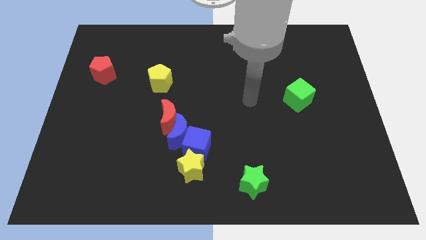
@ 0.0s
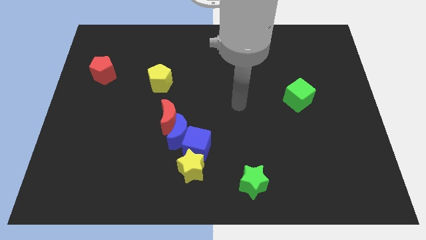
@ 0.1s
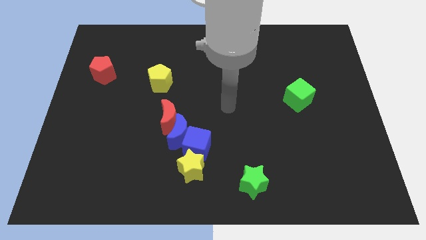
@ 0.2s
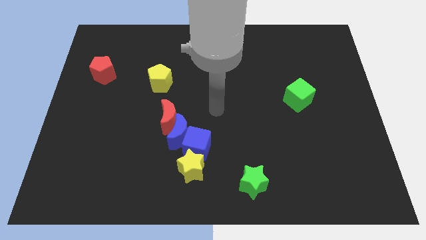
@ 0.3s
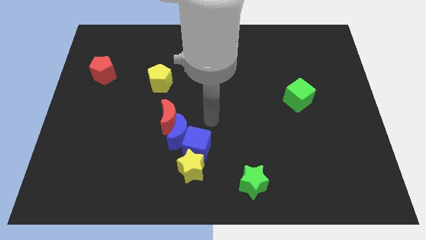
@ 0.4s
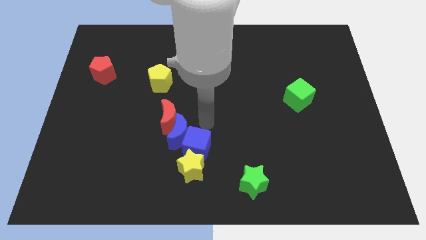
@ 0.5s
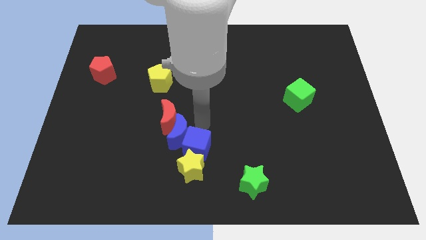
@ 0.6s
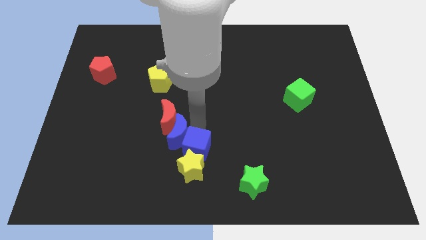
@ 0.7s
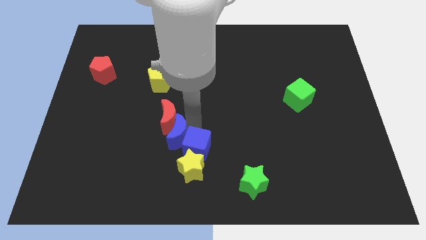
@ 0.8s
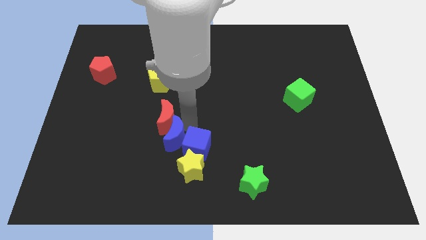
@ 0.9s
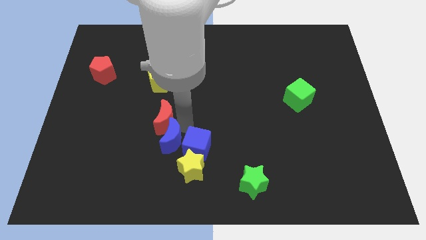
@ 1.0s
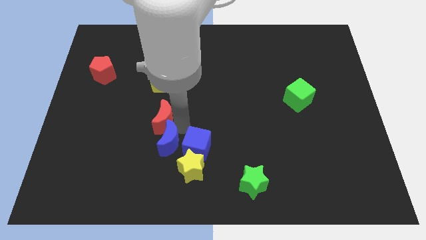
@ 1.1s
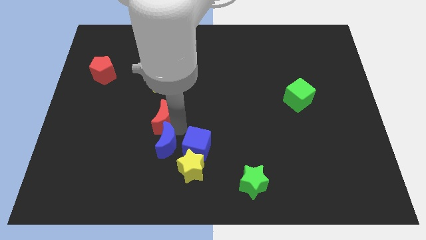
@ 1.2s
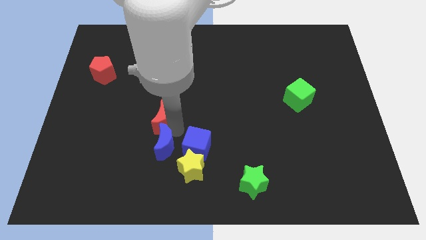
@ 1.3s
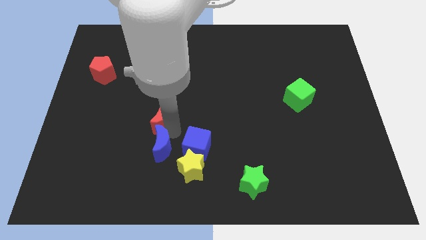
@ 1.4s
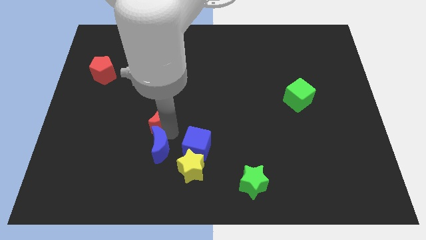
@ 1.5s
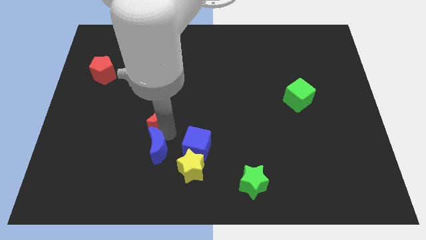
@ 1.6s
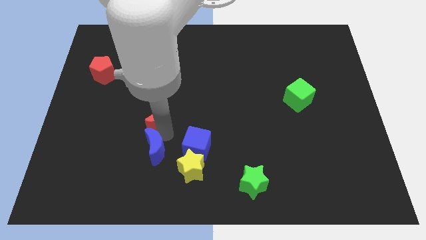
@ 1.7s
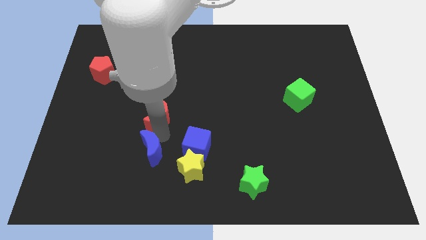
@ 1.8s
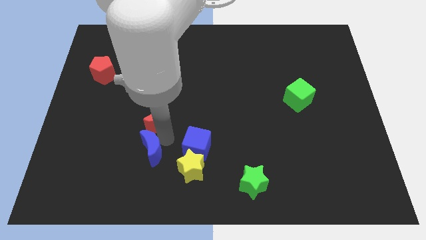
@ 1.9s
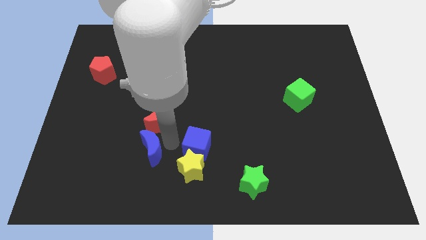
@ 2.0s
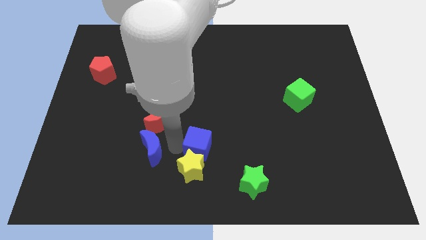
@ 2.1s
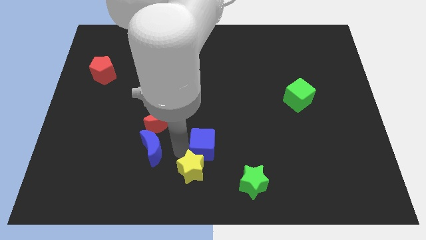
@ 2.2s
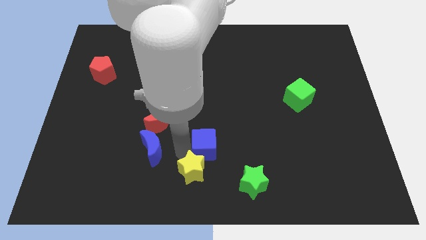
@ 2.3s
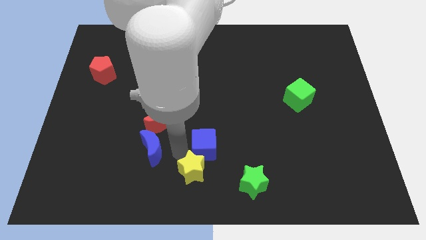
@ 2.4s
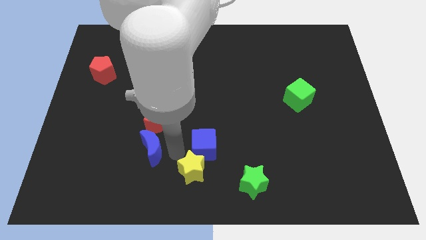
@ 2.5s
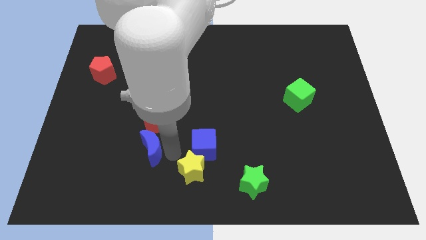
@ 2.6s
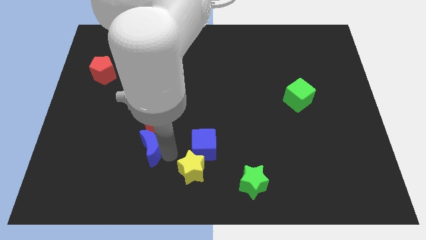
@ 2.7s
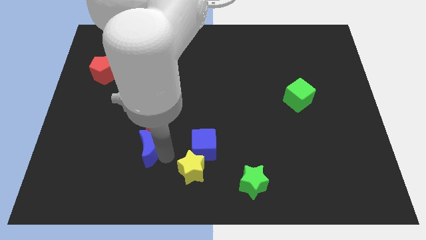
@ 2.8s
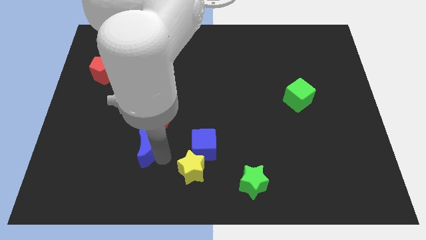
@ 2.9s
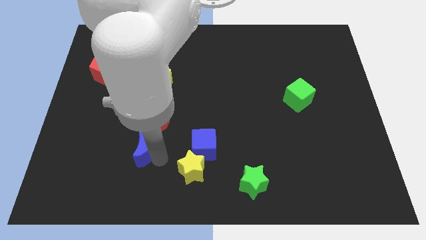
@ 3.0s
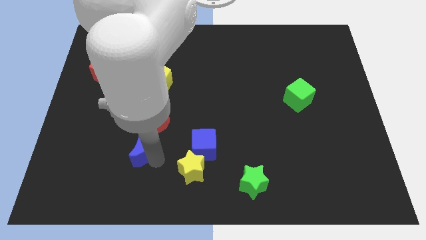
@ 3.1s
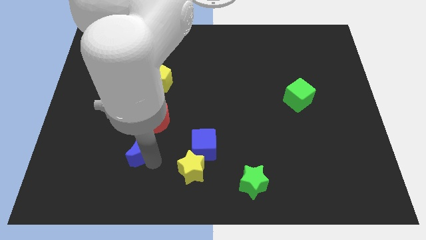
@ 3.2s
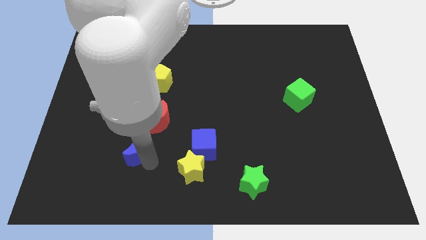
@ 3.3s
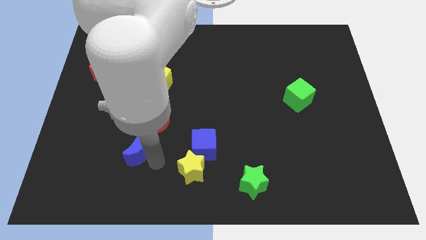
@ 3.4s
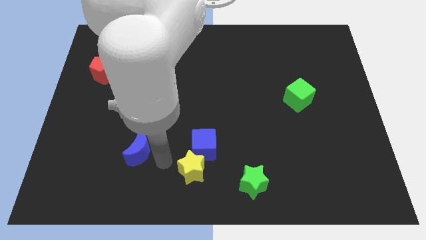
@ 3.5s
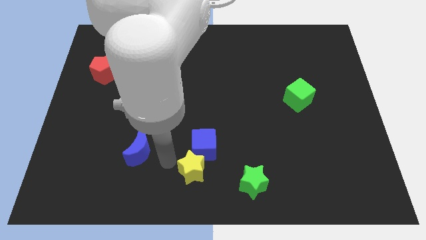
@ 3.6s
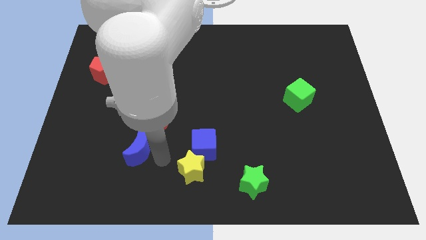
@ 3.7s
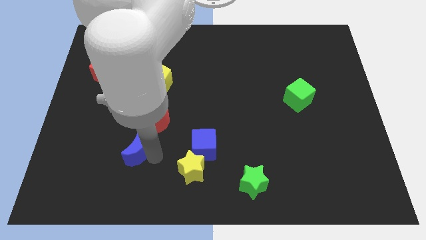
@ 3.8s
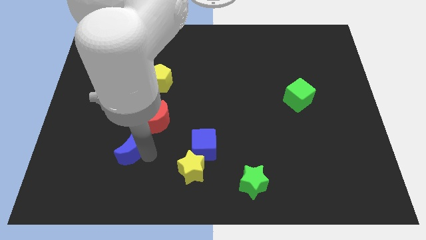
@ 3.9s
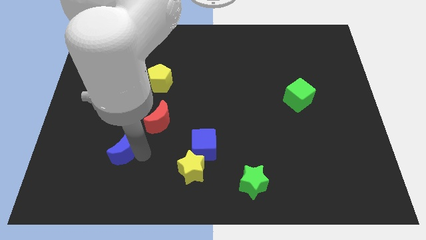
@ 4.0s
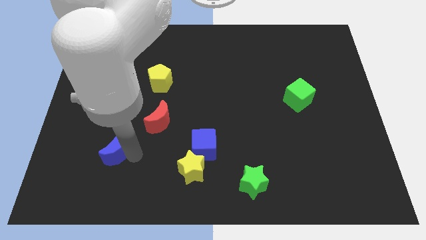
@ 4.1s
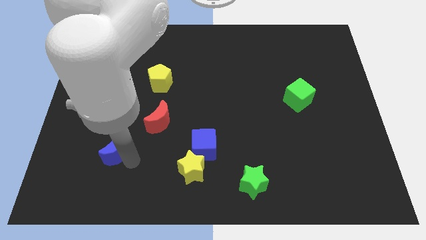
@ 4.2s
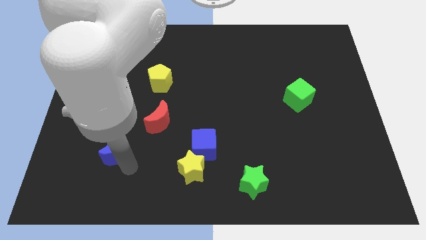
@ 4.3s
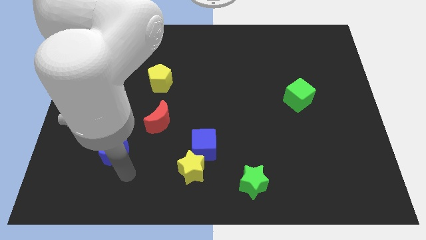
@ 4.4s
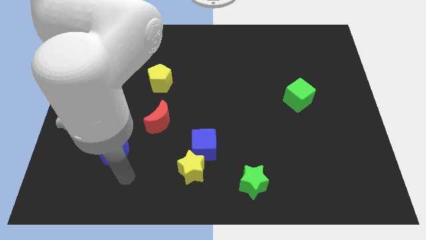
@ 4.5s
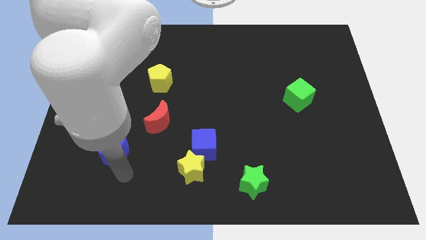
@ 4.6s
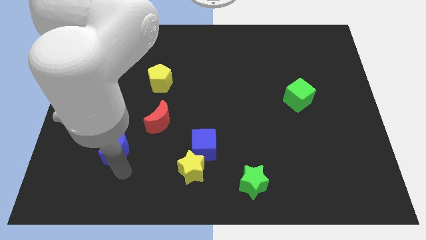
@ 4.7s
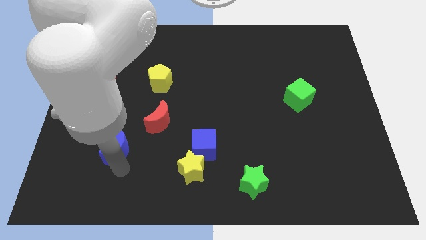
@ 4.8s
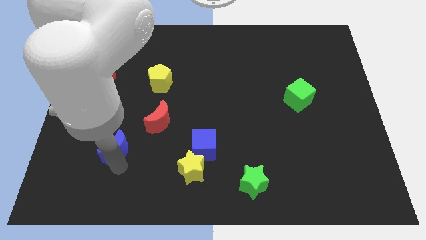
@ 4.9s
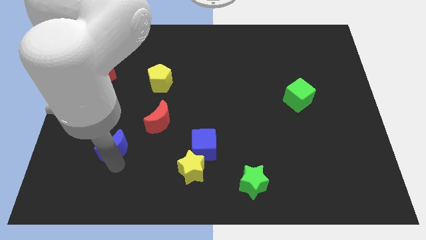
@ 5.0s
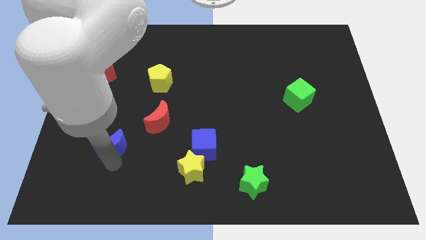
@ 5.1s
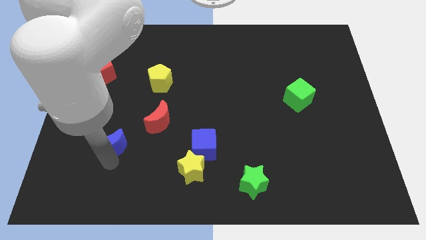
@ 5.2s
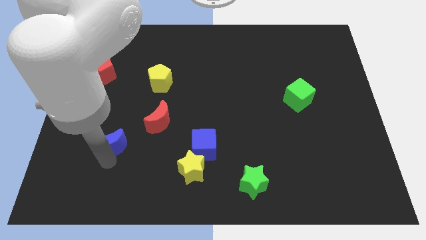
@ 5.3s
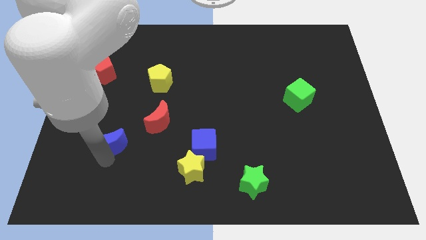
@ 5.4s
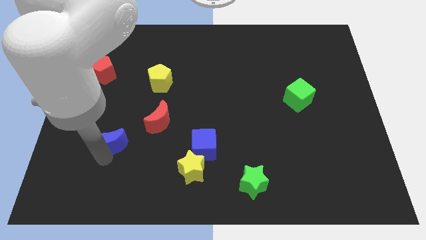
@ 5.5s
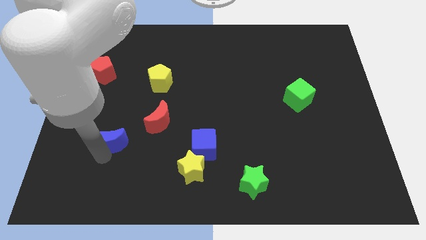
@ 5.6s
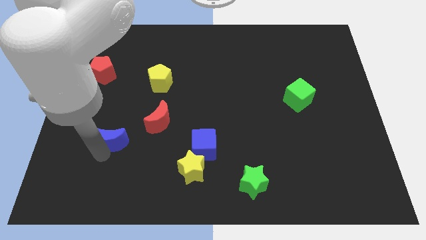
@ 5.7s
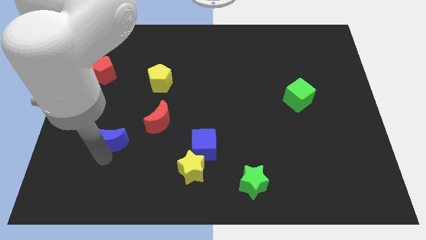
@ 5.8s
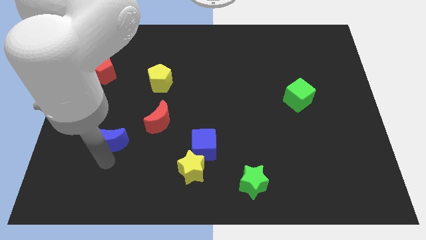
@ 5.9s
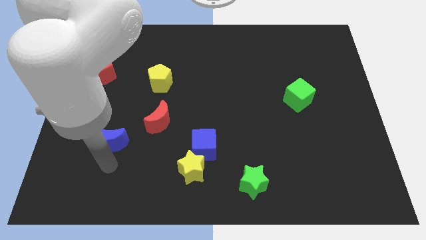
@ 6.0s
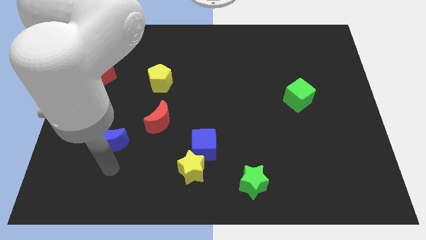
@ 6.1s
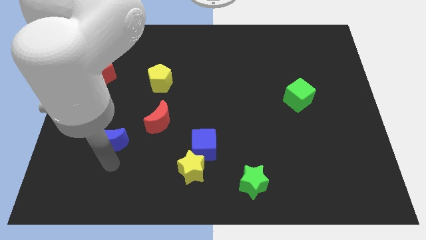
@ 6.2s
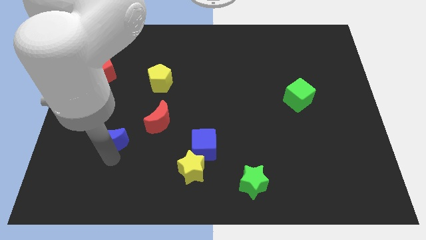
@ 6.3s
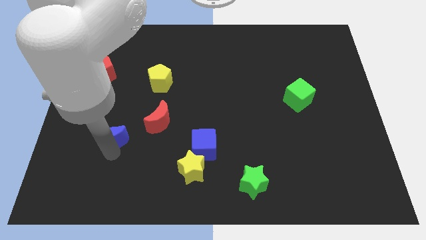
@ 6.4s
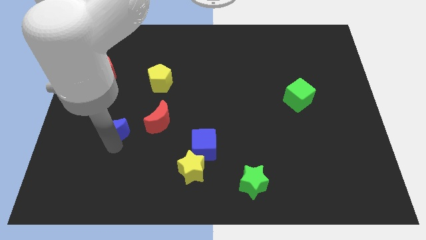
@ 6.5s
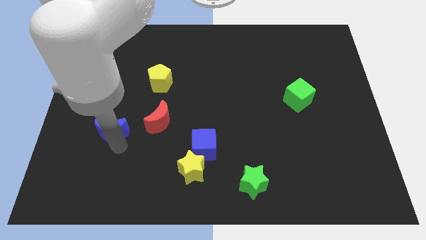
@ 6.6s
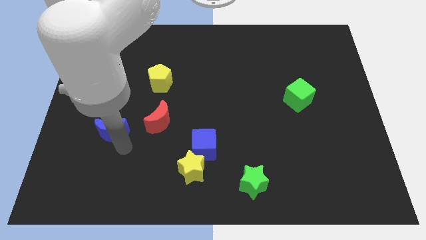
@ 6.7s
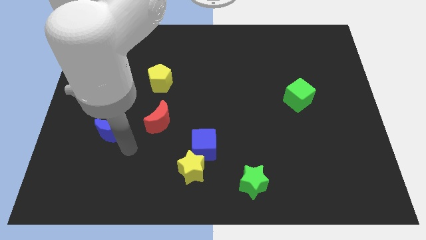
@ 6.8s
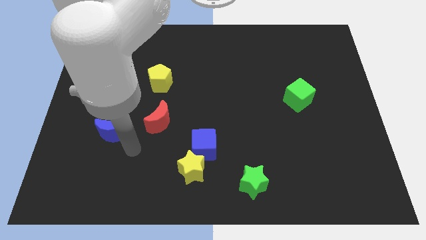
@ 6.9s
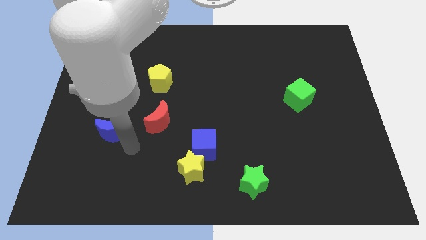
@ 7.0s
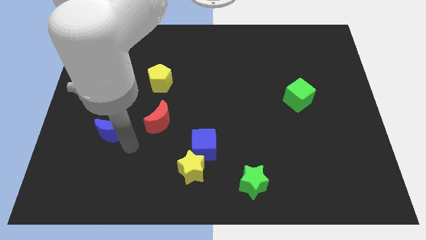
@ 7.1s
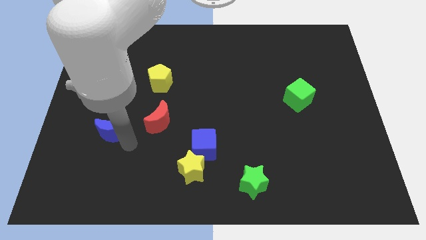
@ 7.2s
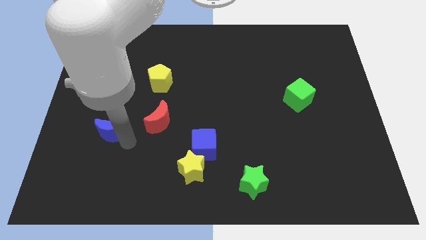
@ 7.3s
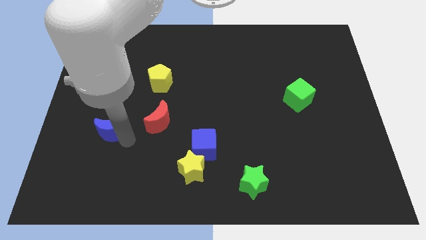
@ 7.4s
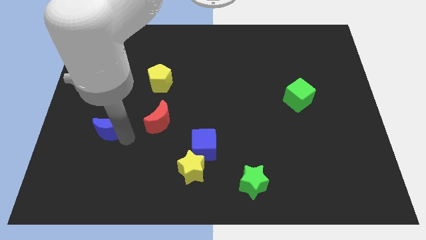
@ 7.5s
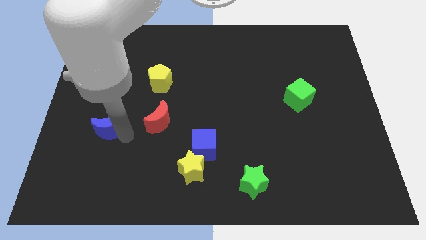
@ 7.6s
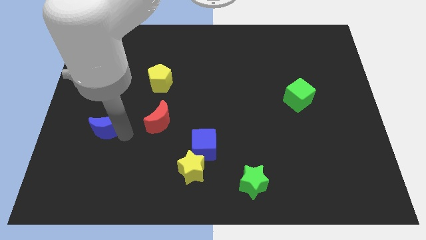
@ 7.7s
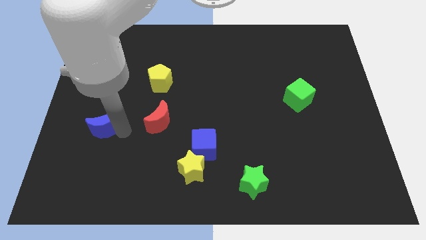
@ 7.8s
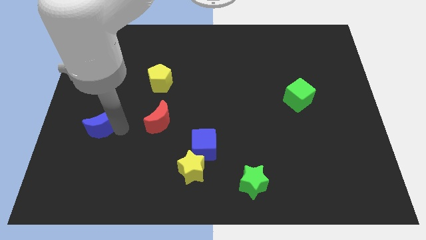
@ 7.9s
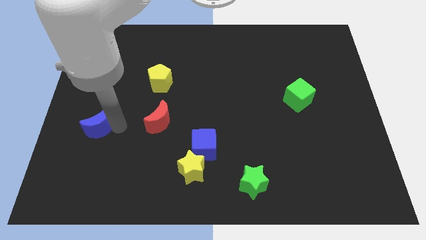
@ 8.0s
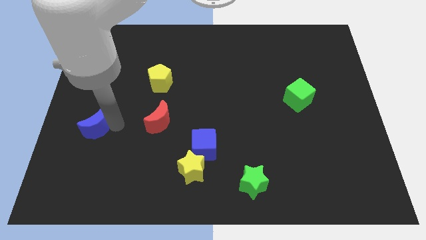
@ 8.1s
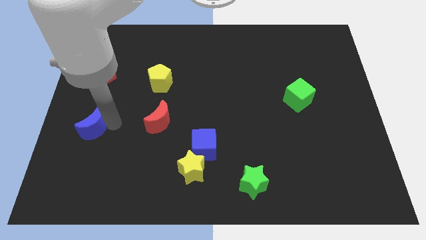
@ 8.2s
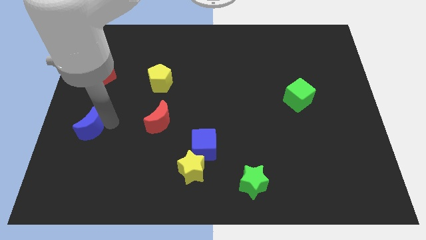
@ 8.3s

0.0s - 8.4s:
put the blue moon to the center left
